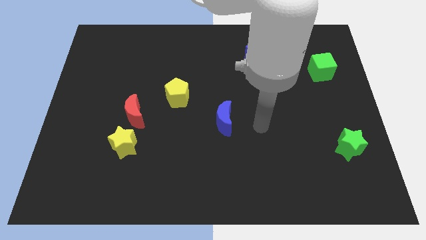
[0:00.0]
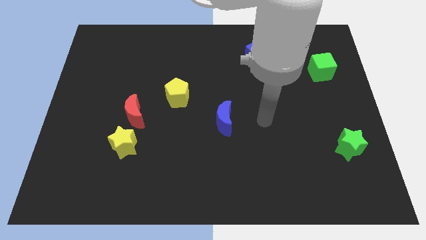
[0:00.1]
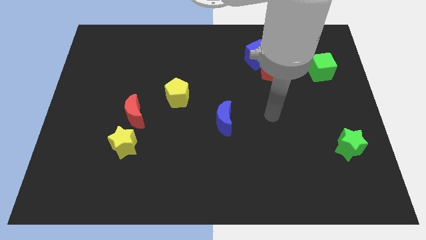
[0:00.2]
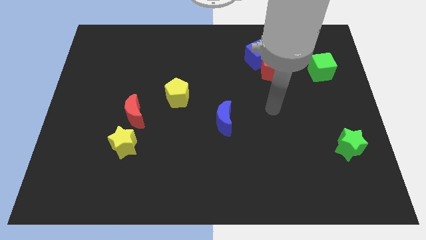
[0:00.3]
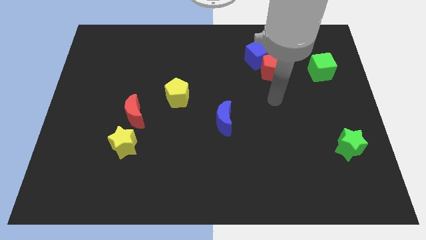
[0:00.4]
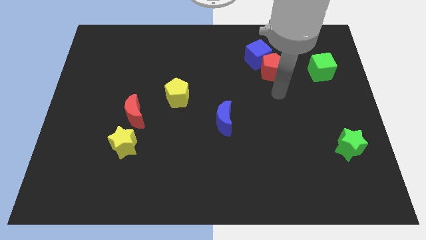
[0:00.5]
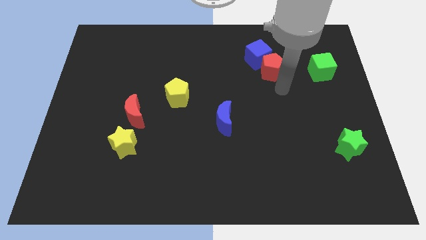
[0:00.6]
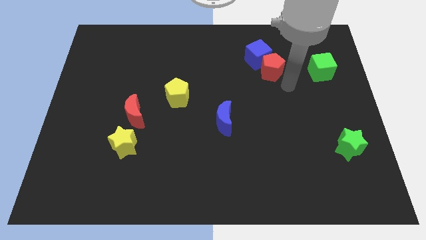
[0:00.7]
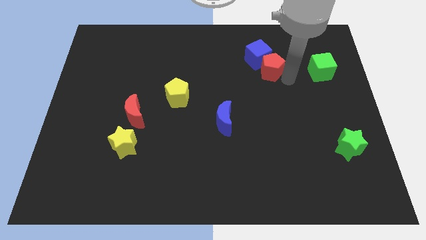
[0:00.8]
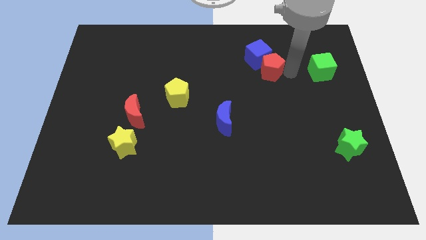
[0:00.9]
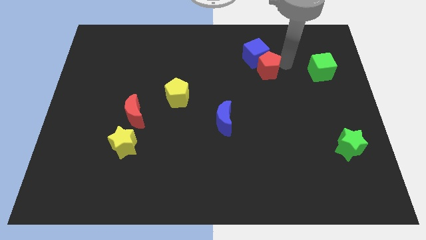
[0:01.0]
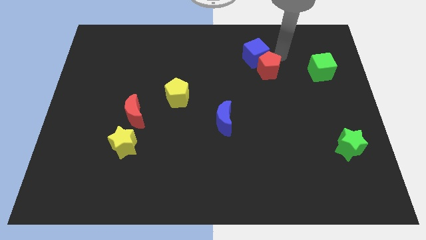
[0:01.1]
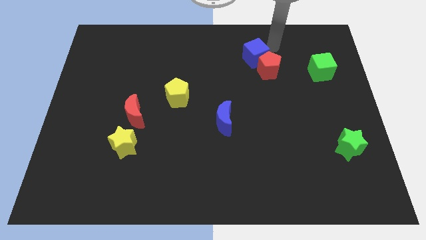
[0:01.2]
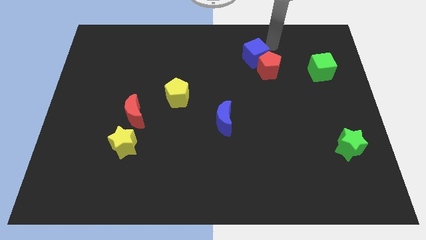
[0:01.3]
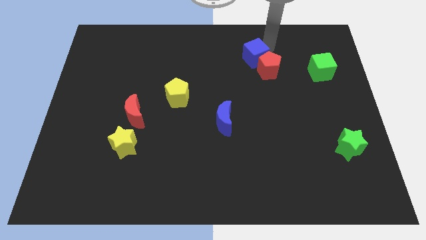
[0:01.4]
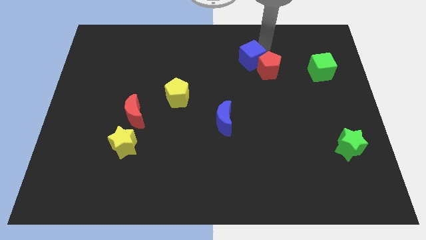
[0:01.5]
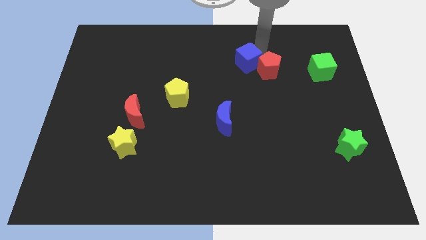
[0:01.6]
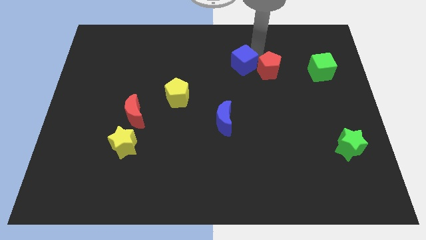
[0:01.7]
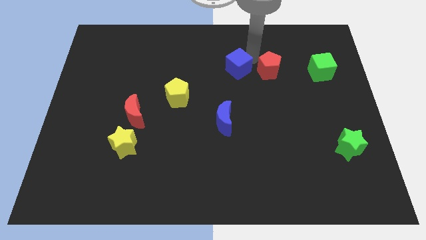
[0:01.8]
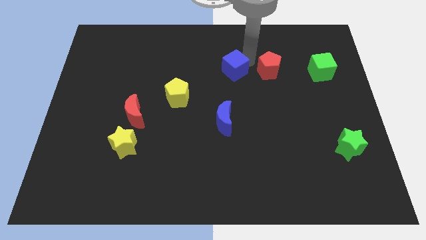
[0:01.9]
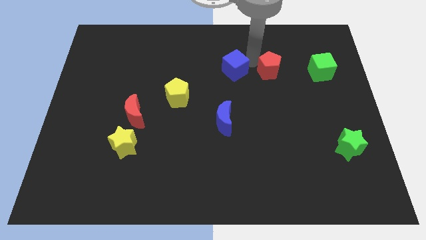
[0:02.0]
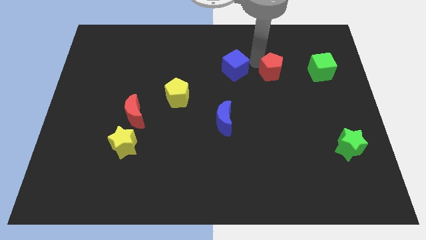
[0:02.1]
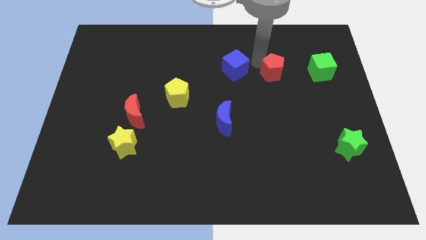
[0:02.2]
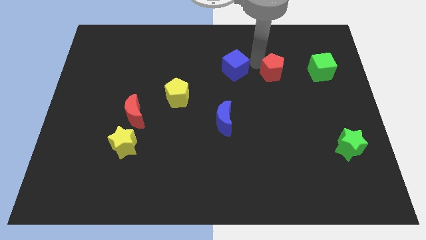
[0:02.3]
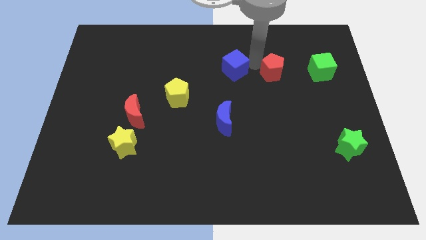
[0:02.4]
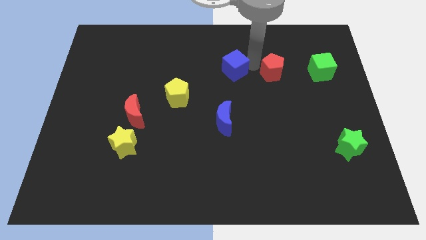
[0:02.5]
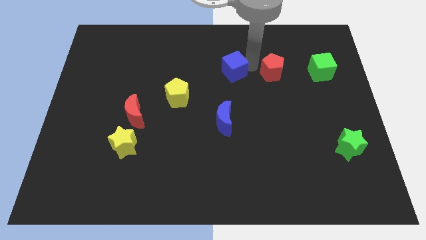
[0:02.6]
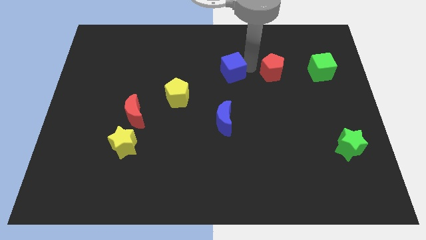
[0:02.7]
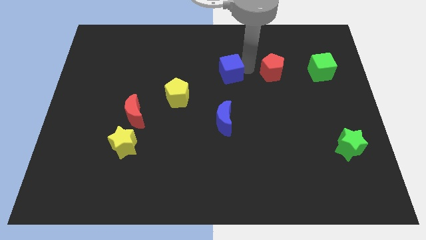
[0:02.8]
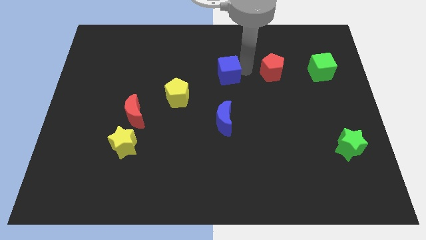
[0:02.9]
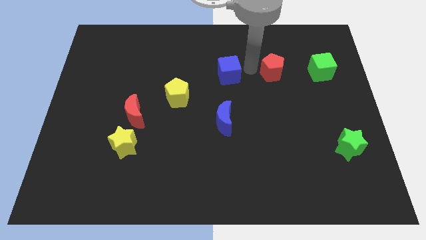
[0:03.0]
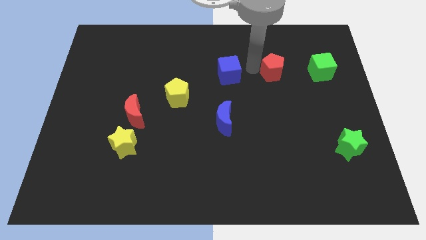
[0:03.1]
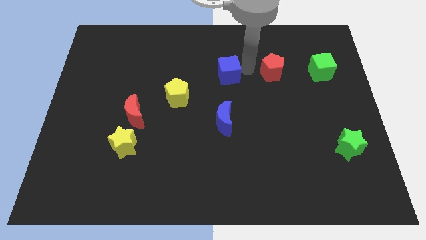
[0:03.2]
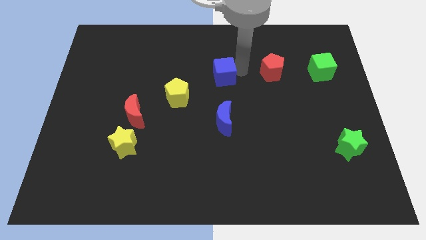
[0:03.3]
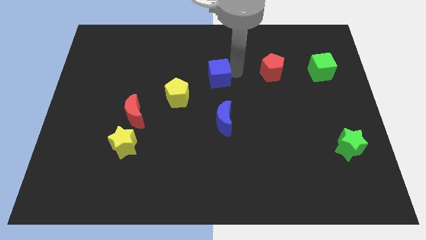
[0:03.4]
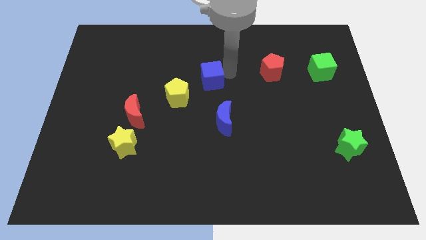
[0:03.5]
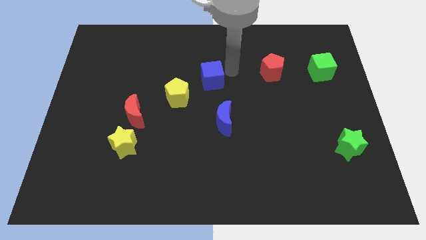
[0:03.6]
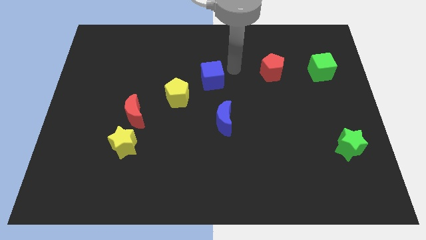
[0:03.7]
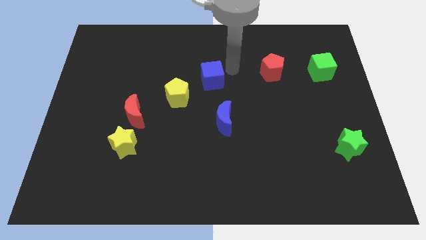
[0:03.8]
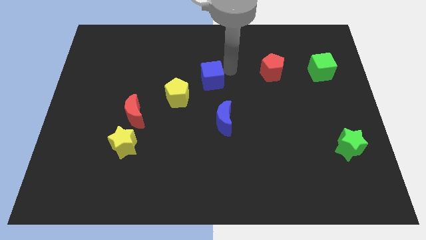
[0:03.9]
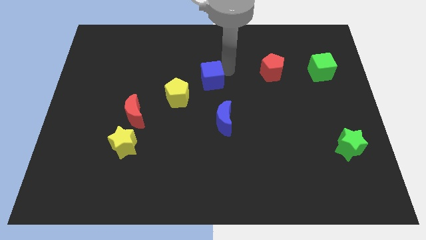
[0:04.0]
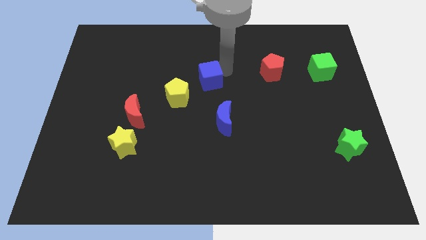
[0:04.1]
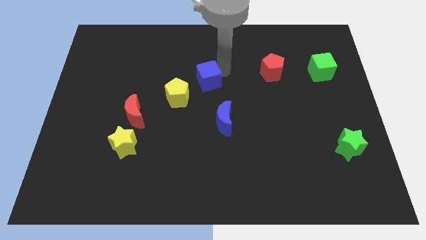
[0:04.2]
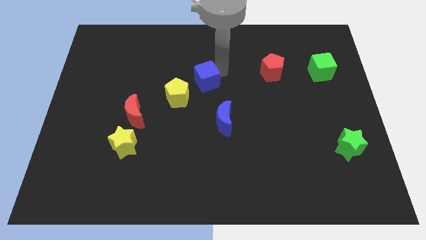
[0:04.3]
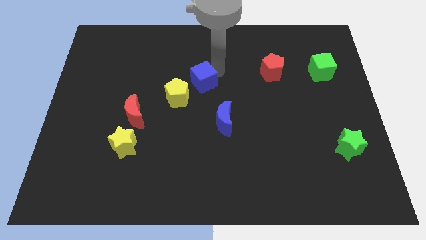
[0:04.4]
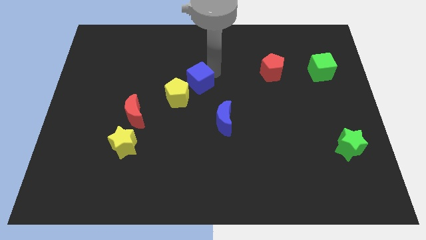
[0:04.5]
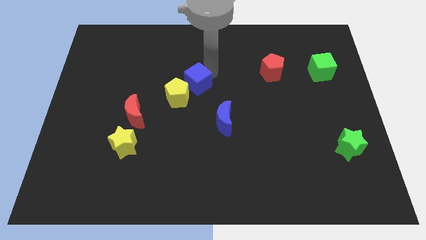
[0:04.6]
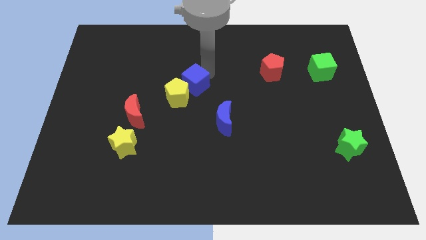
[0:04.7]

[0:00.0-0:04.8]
push the blue cube next to the yellow pentagon

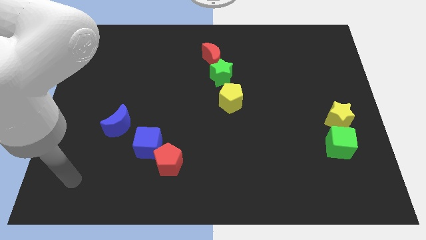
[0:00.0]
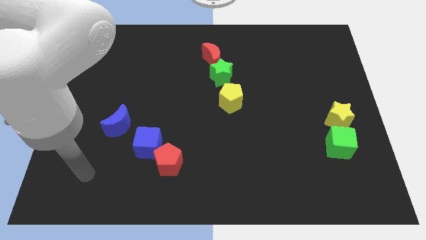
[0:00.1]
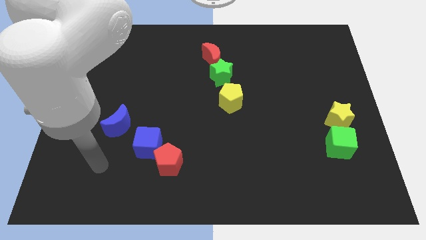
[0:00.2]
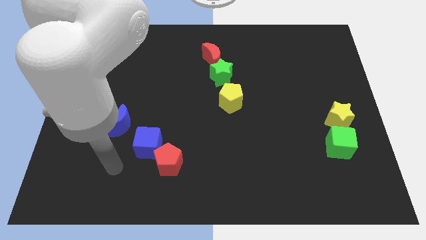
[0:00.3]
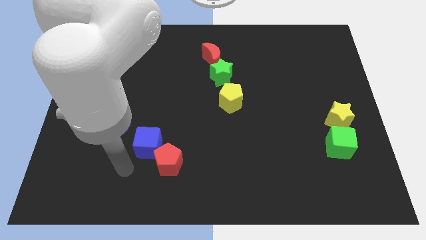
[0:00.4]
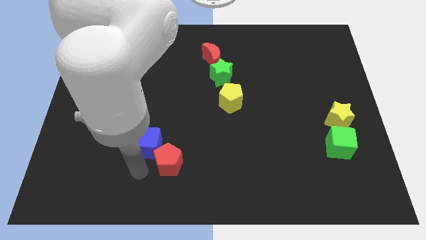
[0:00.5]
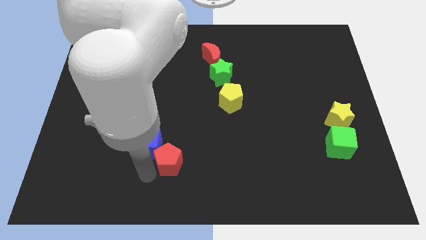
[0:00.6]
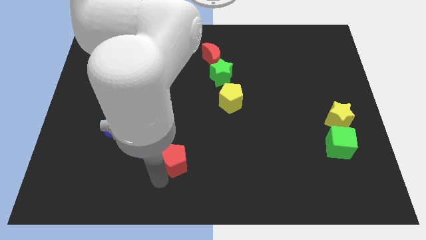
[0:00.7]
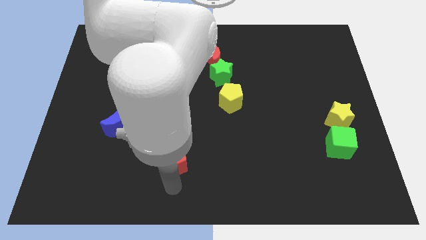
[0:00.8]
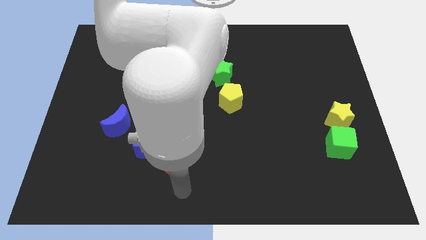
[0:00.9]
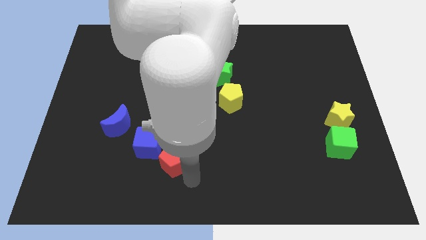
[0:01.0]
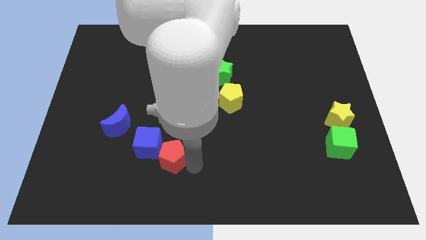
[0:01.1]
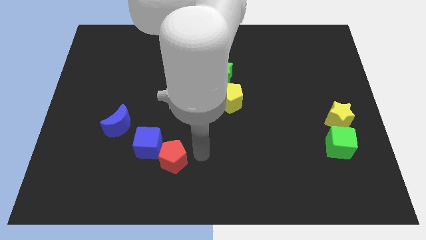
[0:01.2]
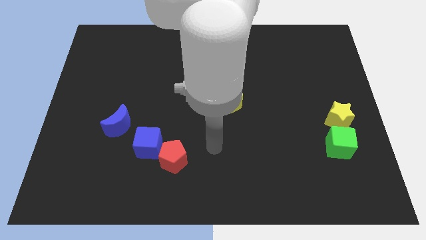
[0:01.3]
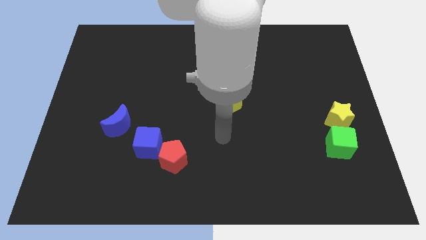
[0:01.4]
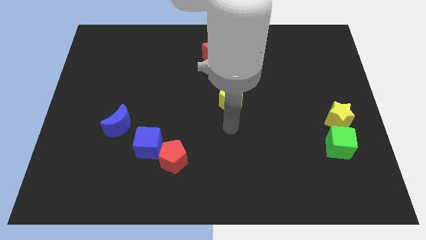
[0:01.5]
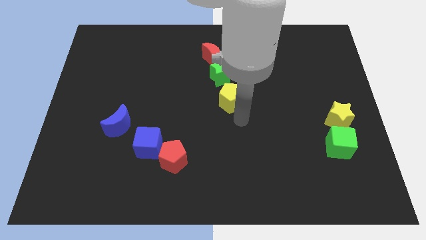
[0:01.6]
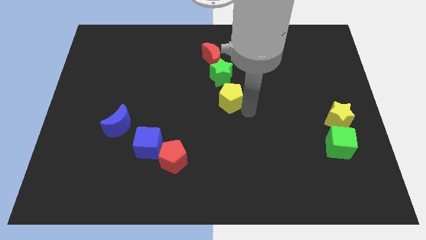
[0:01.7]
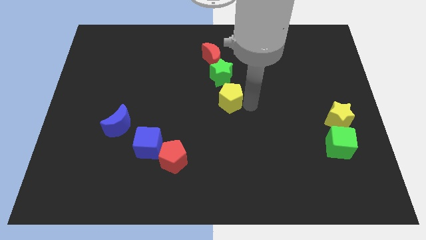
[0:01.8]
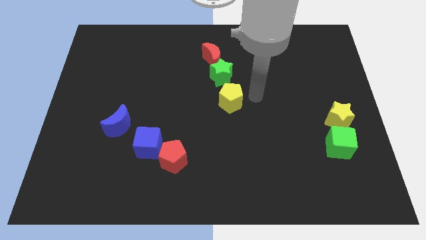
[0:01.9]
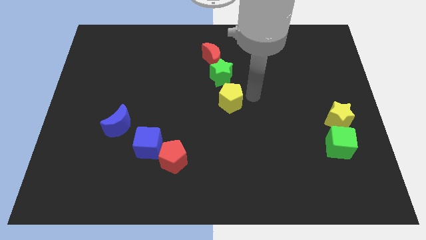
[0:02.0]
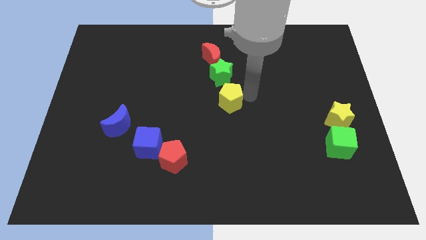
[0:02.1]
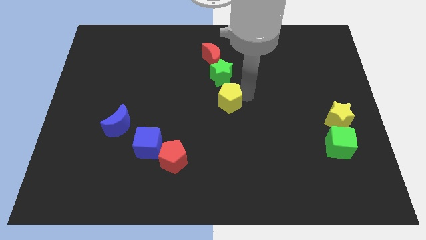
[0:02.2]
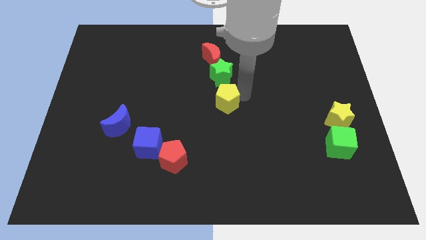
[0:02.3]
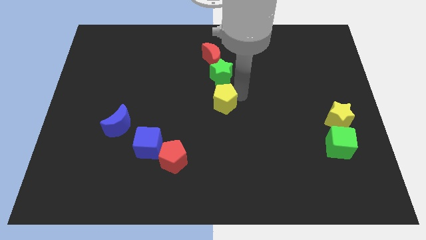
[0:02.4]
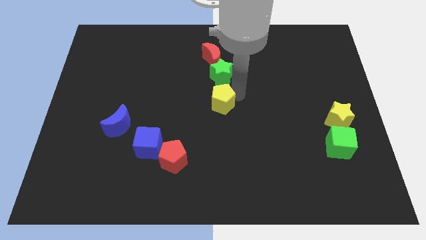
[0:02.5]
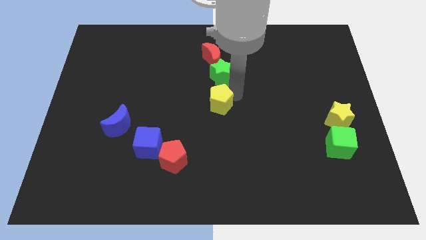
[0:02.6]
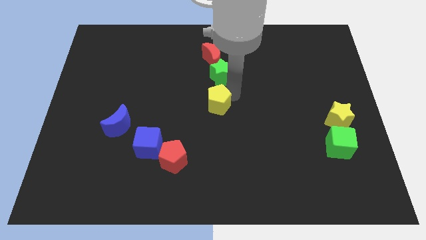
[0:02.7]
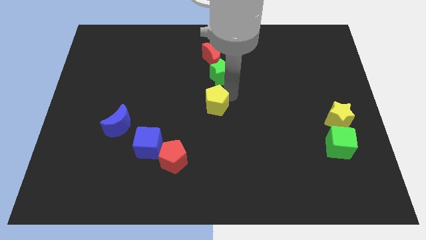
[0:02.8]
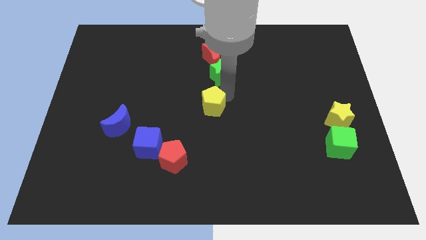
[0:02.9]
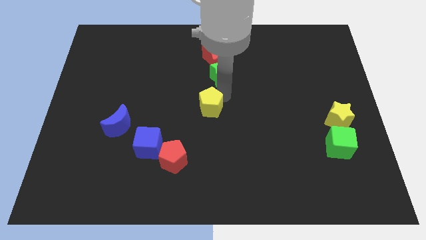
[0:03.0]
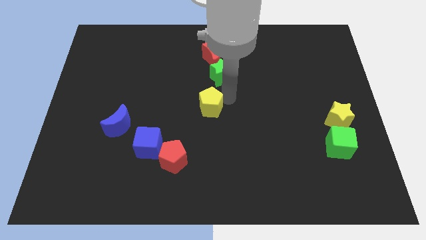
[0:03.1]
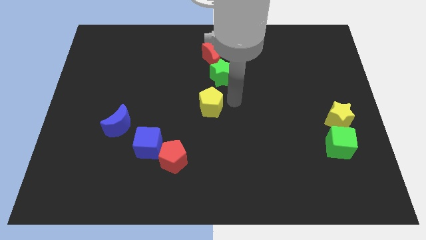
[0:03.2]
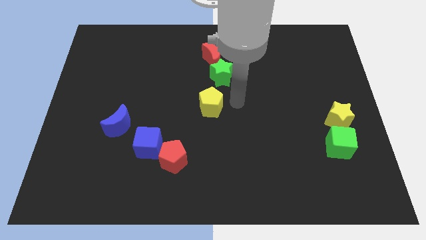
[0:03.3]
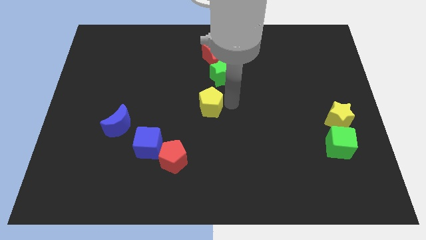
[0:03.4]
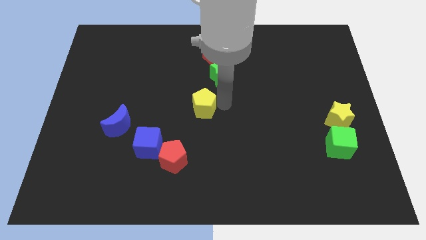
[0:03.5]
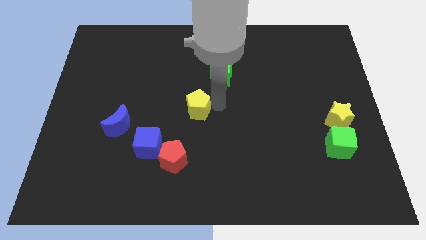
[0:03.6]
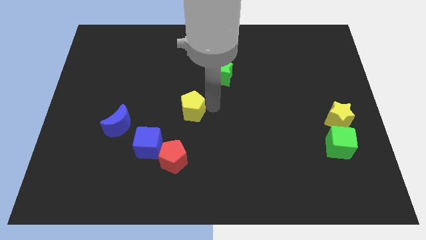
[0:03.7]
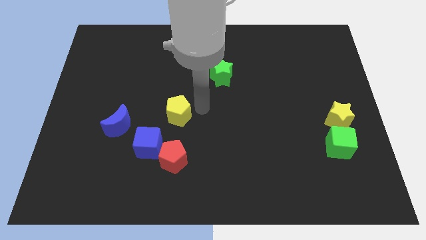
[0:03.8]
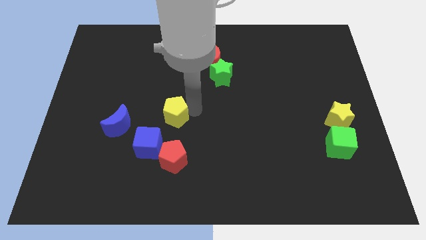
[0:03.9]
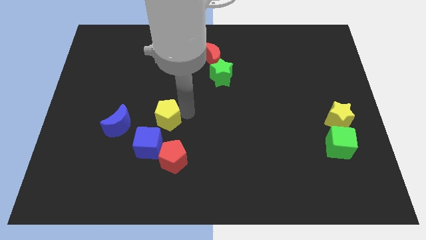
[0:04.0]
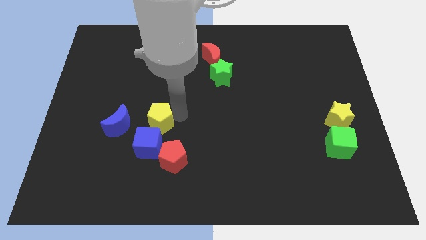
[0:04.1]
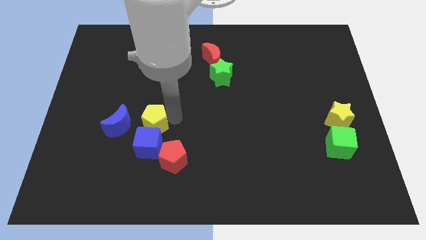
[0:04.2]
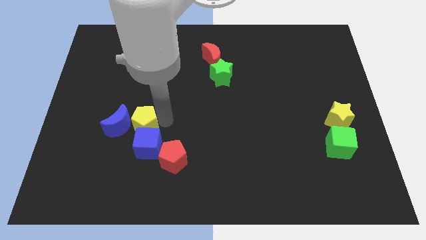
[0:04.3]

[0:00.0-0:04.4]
move the yellow pentagon next to the blue moon
